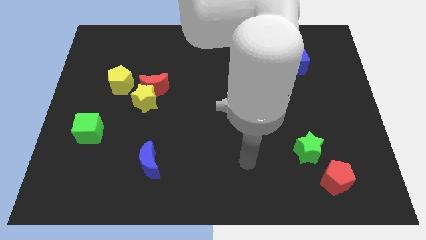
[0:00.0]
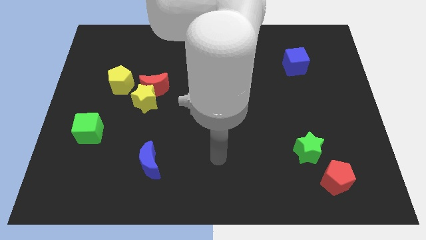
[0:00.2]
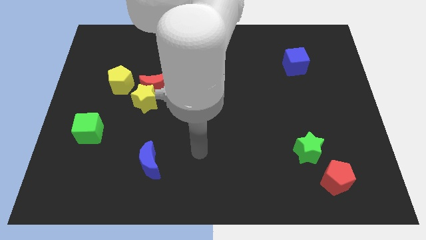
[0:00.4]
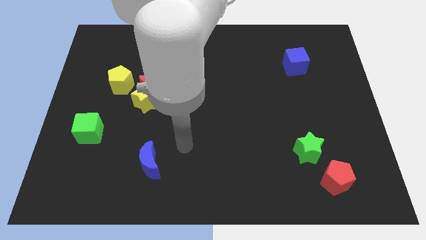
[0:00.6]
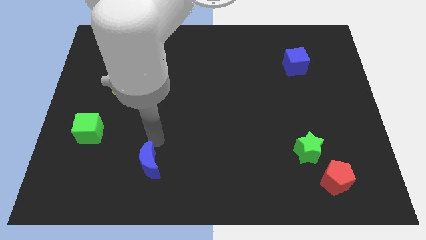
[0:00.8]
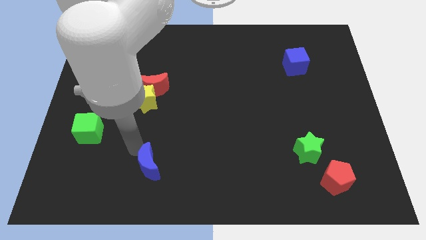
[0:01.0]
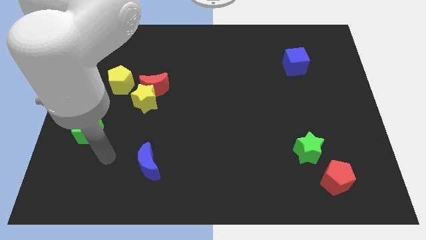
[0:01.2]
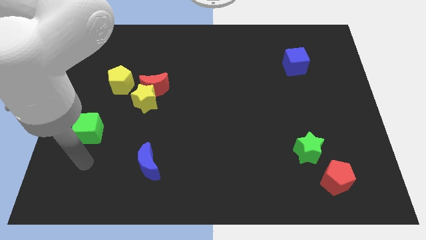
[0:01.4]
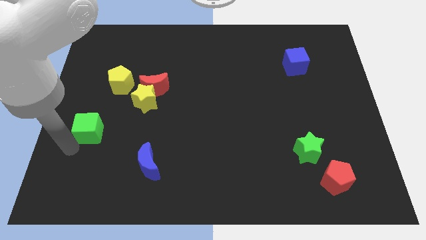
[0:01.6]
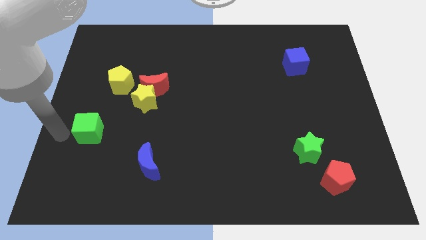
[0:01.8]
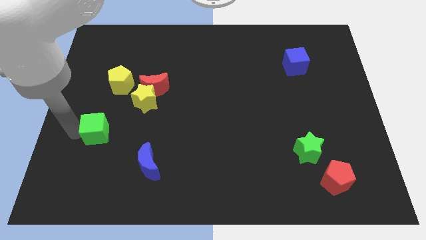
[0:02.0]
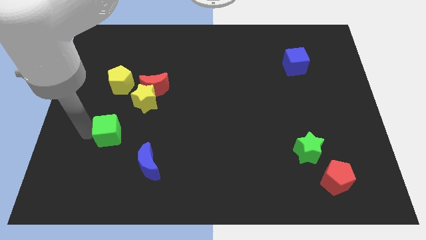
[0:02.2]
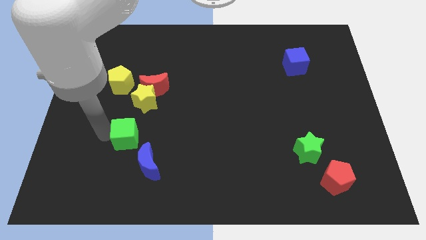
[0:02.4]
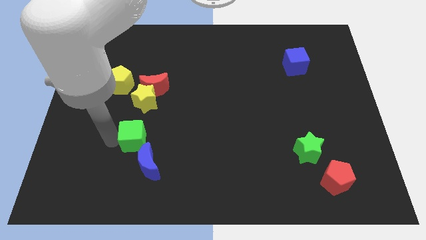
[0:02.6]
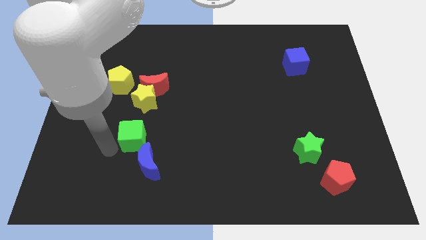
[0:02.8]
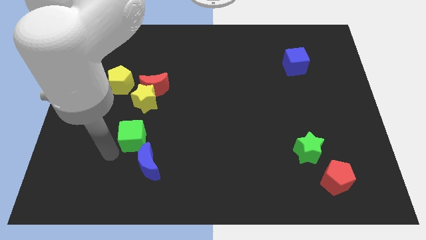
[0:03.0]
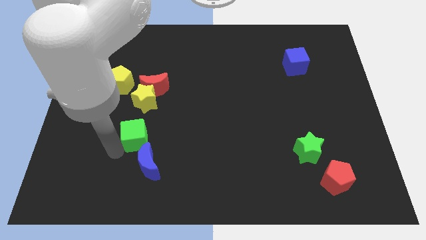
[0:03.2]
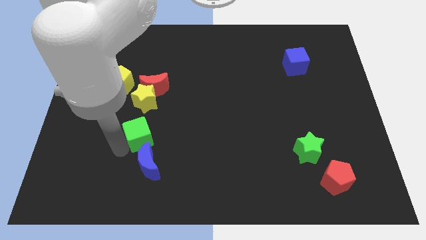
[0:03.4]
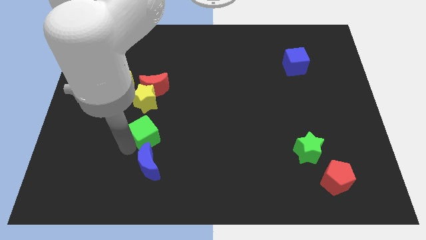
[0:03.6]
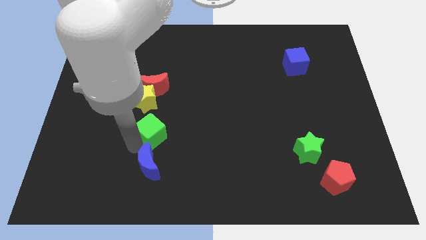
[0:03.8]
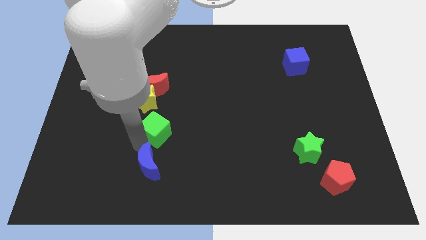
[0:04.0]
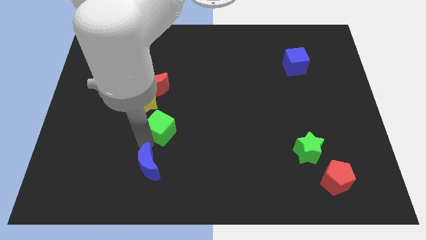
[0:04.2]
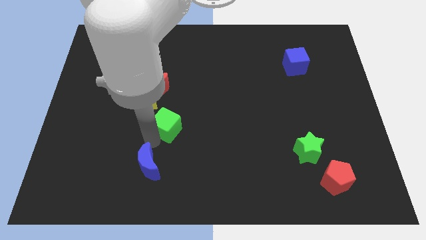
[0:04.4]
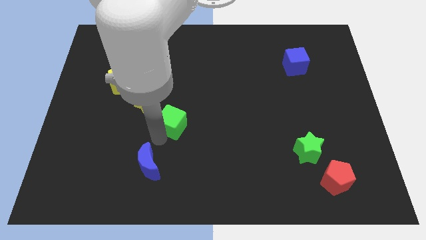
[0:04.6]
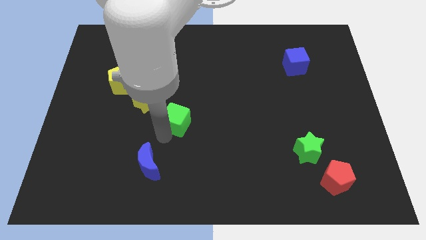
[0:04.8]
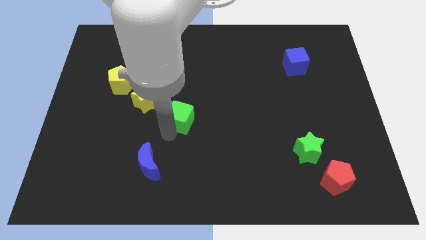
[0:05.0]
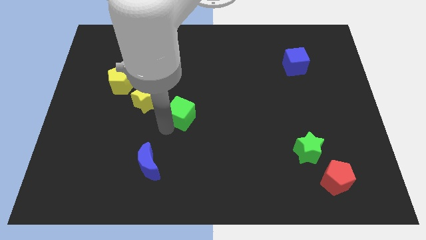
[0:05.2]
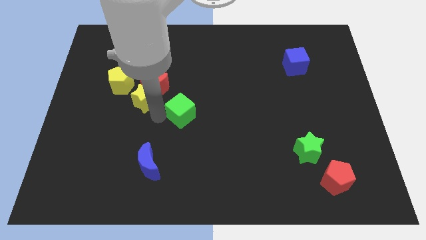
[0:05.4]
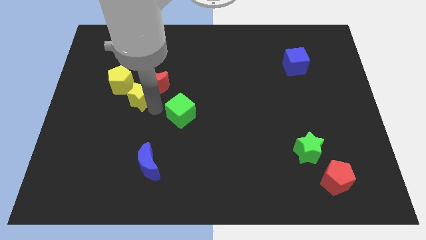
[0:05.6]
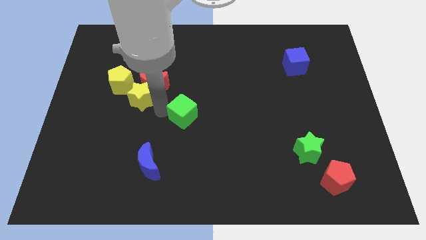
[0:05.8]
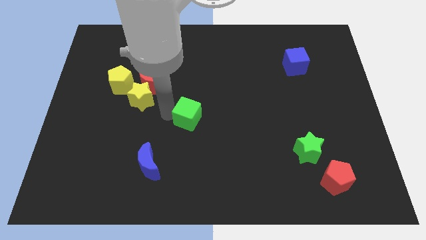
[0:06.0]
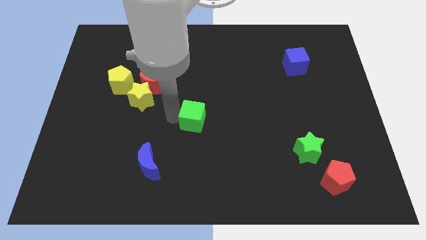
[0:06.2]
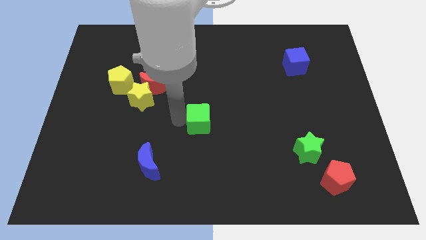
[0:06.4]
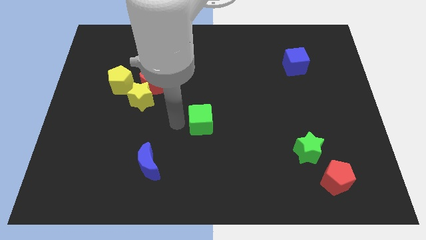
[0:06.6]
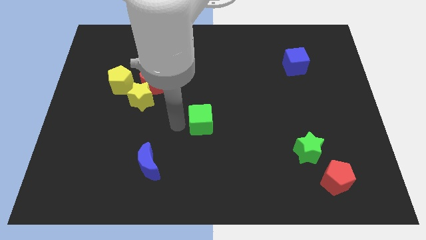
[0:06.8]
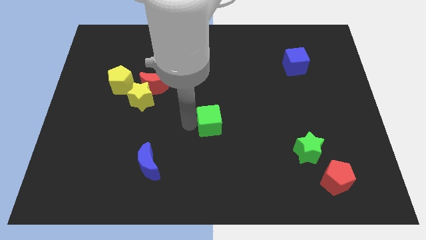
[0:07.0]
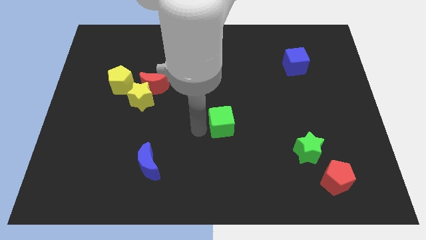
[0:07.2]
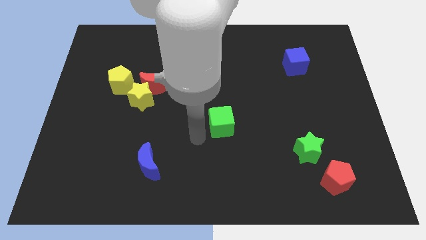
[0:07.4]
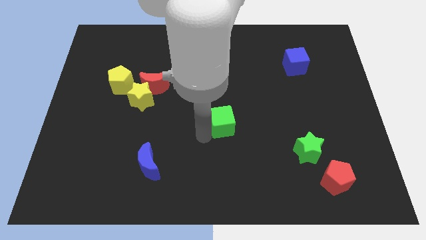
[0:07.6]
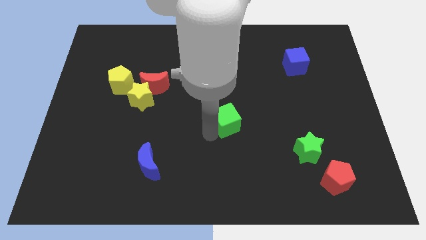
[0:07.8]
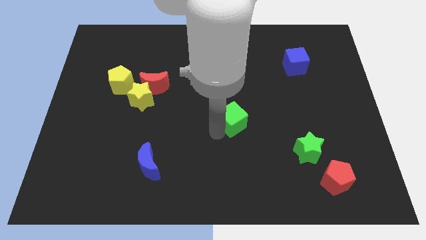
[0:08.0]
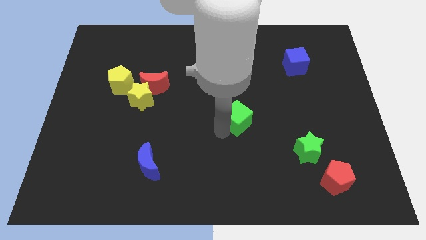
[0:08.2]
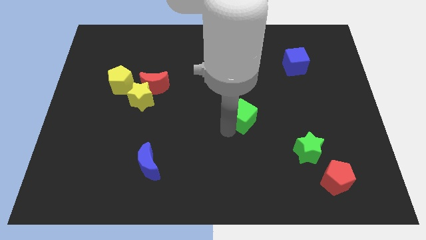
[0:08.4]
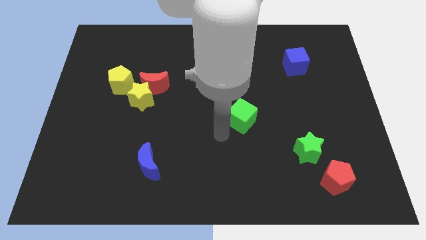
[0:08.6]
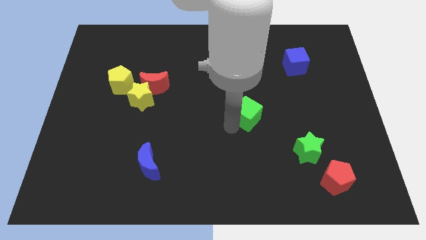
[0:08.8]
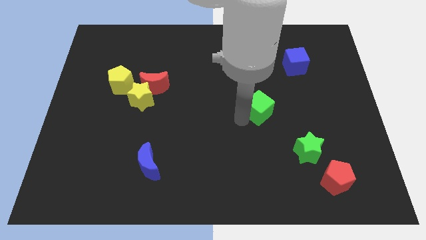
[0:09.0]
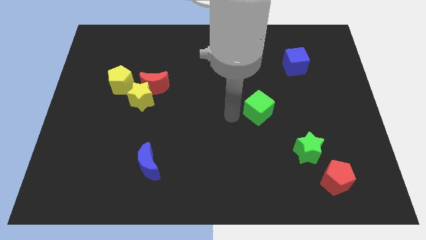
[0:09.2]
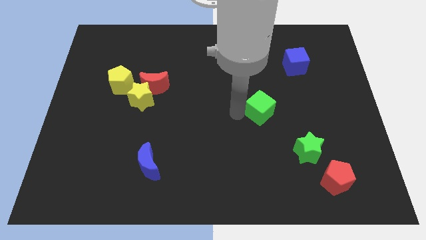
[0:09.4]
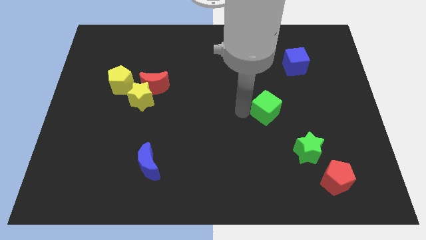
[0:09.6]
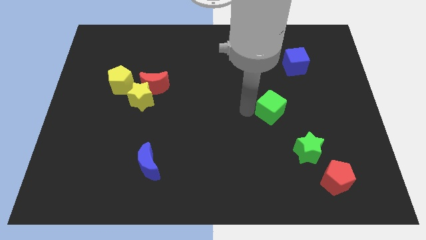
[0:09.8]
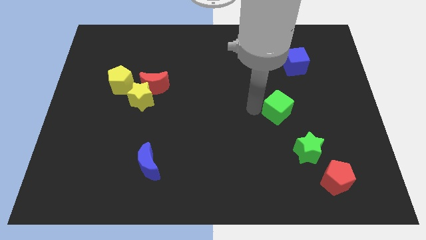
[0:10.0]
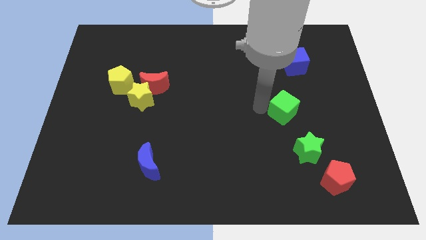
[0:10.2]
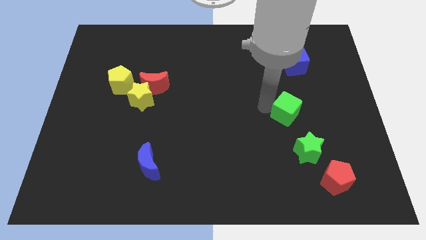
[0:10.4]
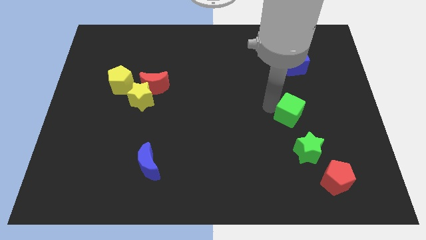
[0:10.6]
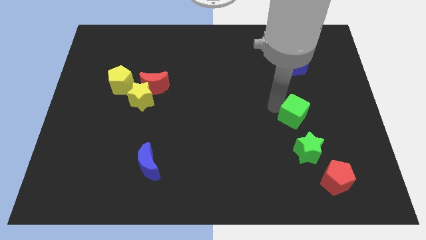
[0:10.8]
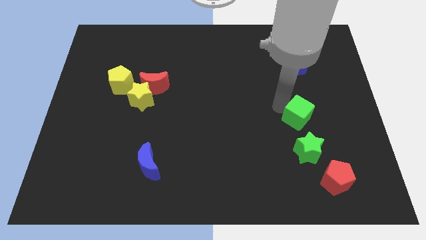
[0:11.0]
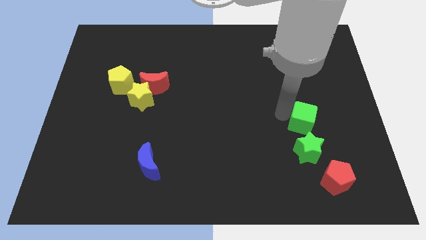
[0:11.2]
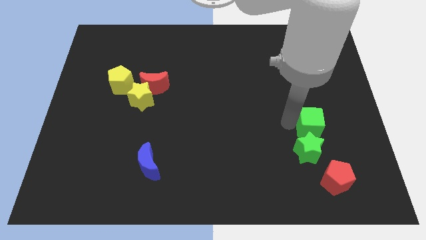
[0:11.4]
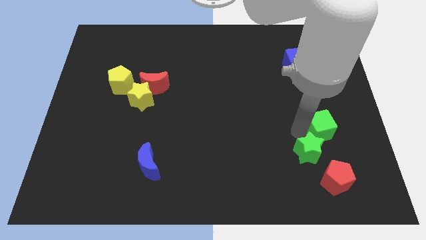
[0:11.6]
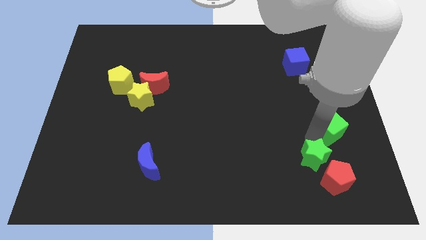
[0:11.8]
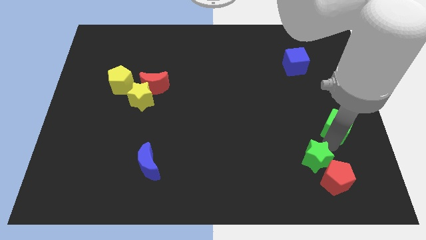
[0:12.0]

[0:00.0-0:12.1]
push the green cube to the center right
